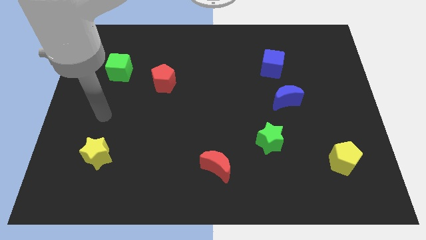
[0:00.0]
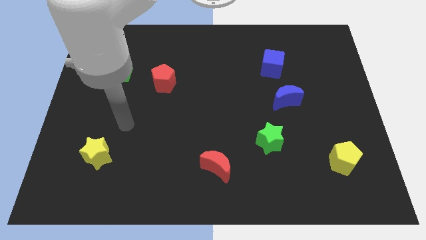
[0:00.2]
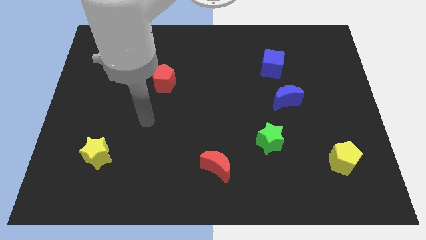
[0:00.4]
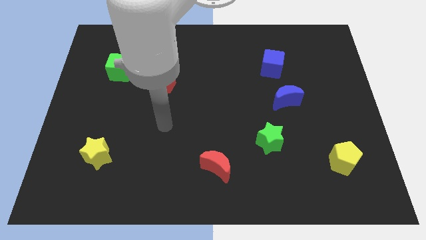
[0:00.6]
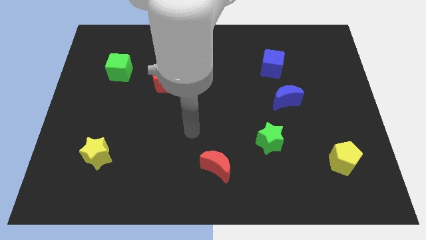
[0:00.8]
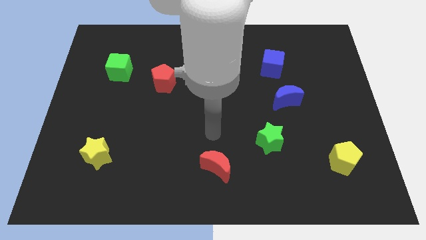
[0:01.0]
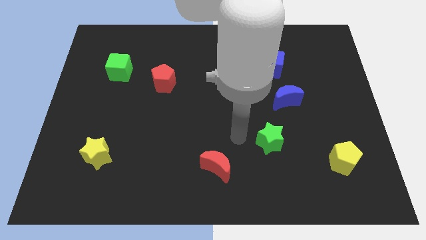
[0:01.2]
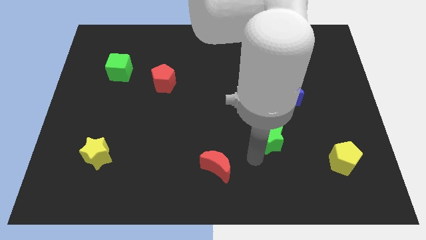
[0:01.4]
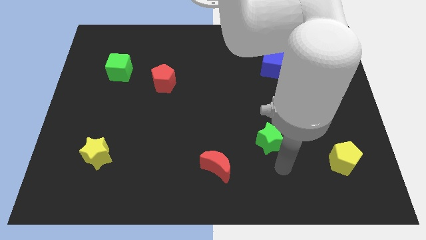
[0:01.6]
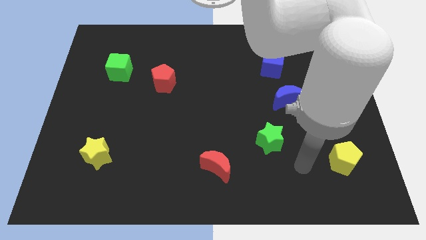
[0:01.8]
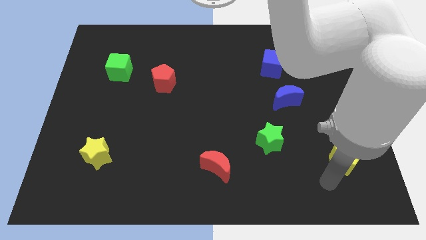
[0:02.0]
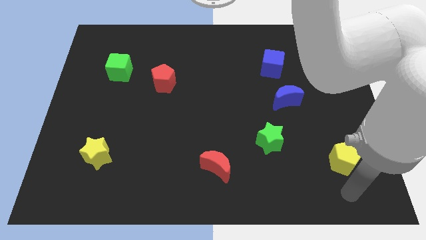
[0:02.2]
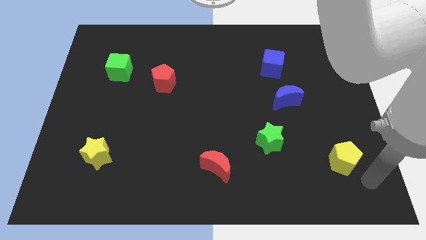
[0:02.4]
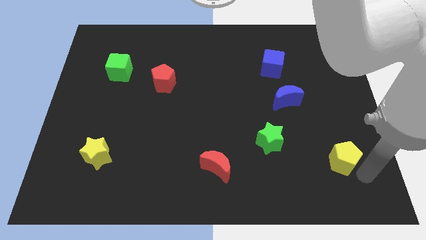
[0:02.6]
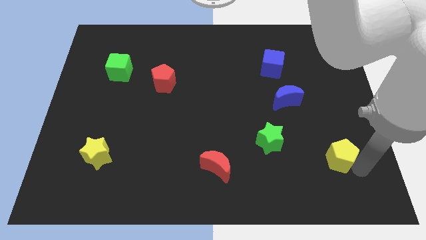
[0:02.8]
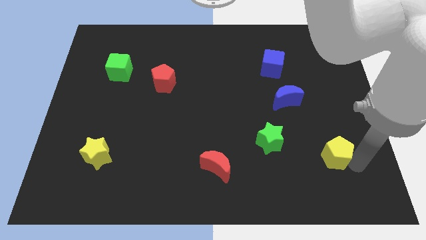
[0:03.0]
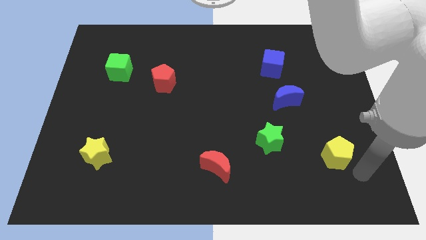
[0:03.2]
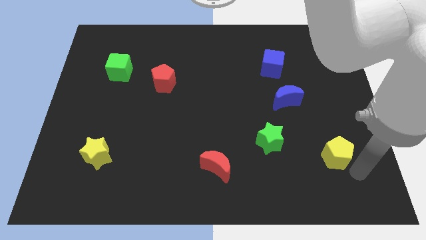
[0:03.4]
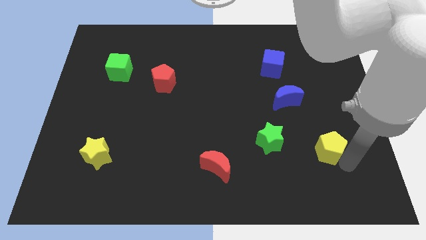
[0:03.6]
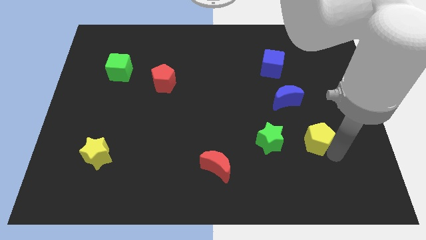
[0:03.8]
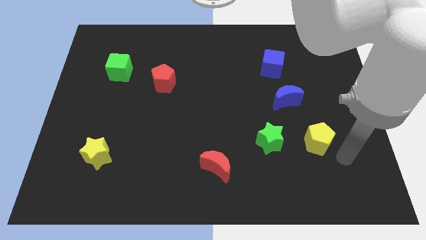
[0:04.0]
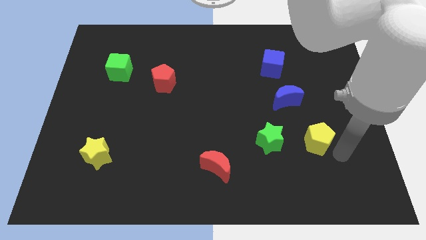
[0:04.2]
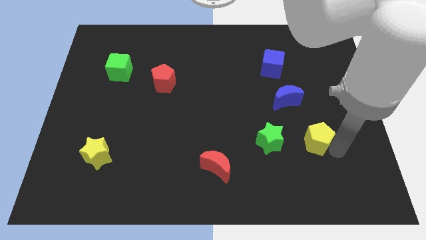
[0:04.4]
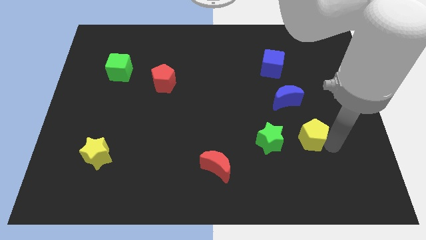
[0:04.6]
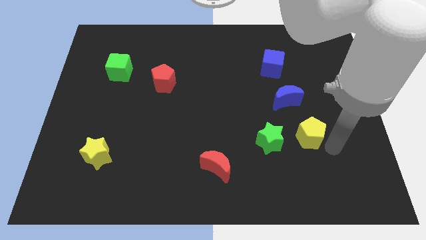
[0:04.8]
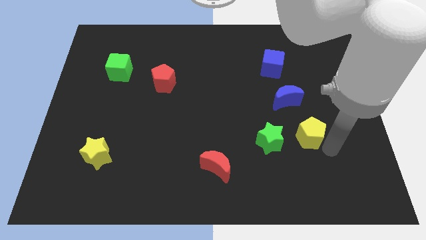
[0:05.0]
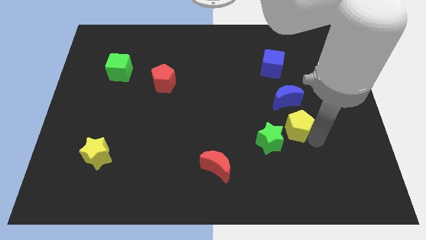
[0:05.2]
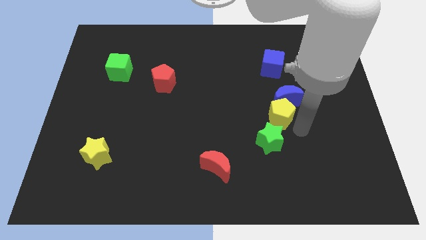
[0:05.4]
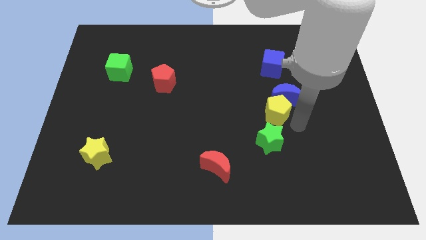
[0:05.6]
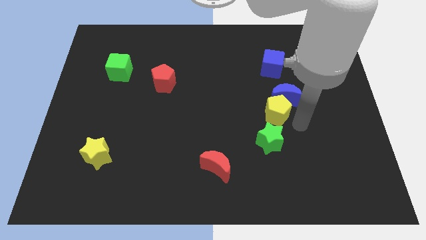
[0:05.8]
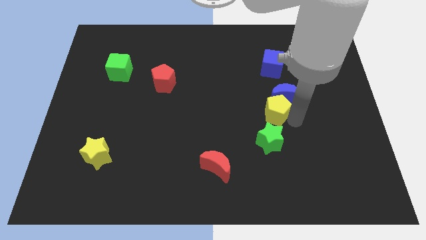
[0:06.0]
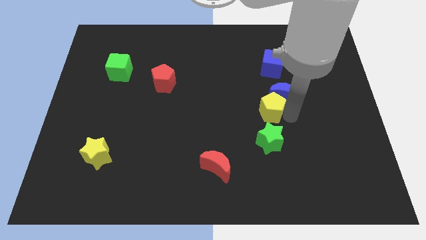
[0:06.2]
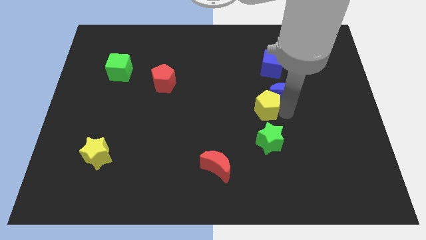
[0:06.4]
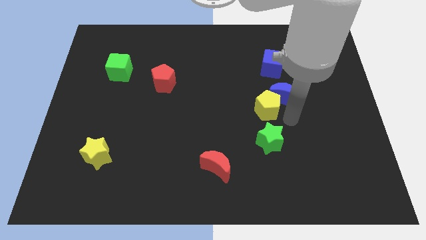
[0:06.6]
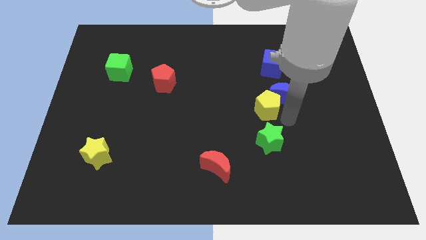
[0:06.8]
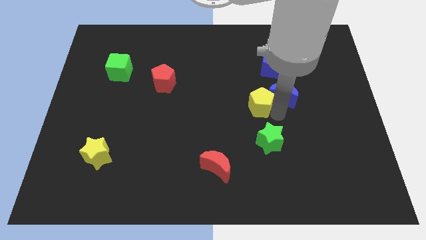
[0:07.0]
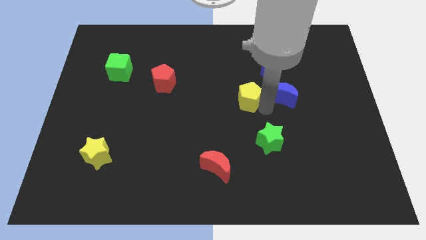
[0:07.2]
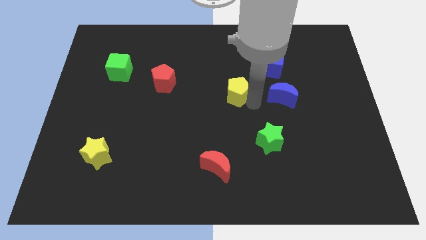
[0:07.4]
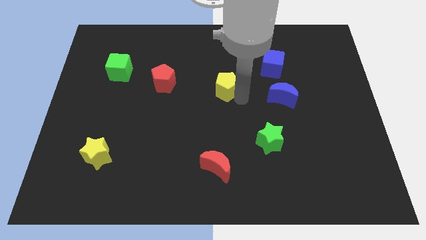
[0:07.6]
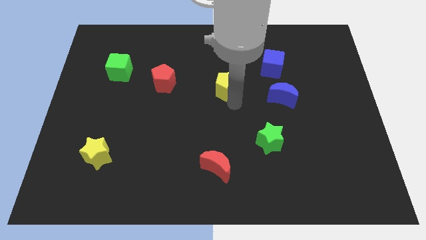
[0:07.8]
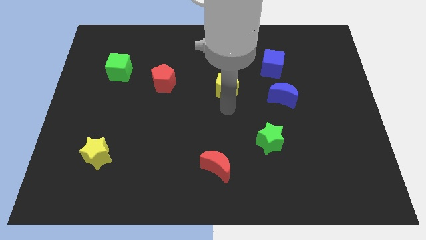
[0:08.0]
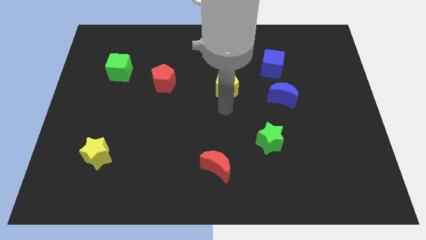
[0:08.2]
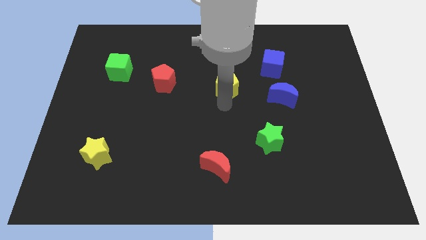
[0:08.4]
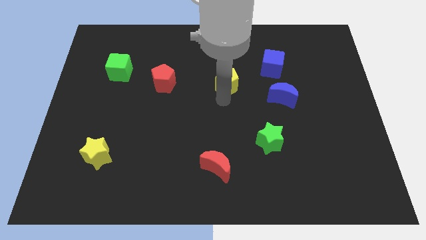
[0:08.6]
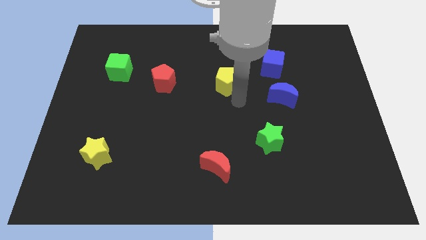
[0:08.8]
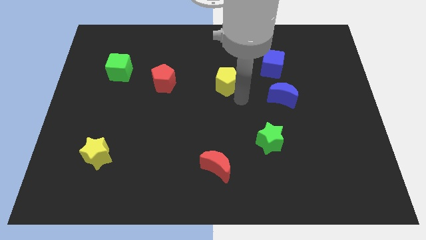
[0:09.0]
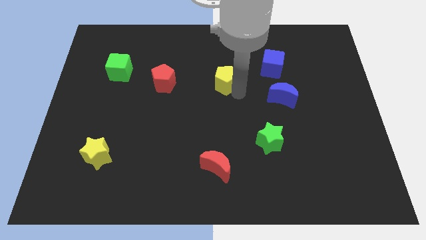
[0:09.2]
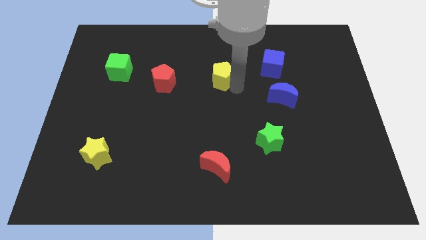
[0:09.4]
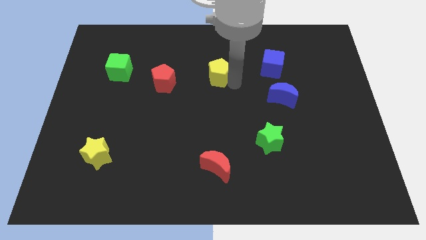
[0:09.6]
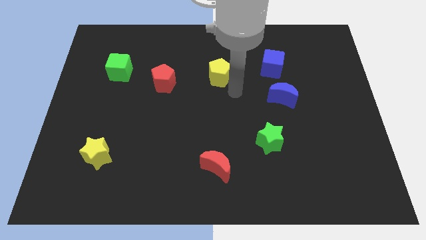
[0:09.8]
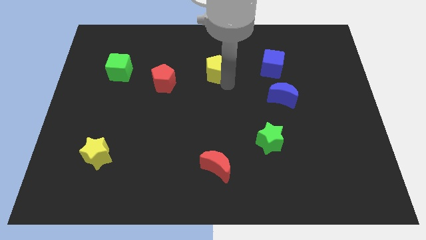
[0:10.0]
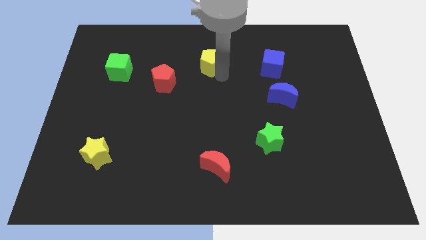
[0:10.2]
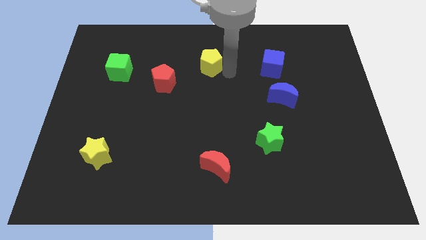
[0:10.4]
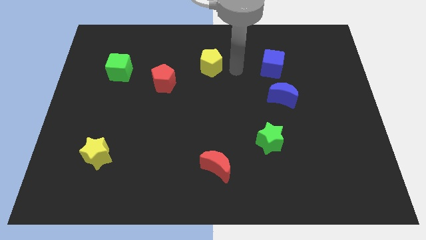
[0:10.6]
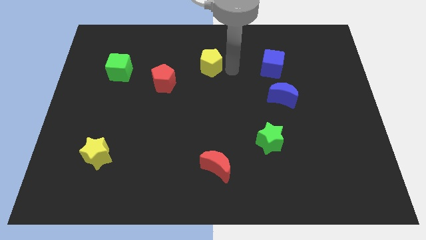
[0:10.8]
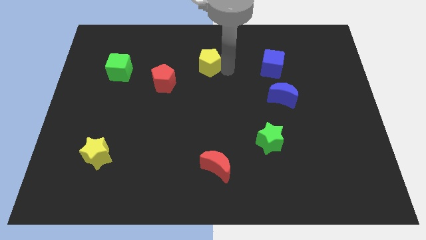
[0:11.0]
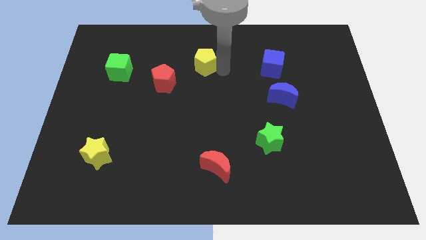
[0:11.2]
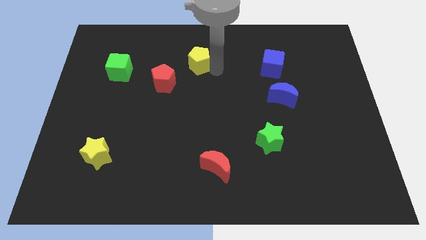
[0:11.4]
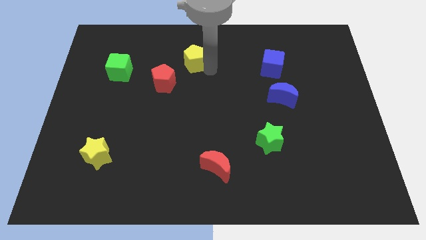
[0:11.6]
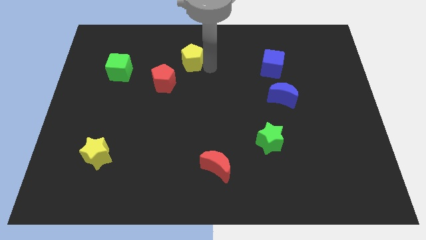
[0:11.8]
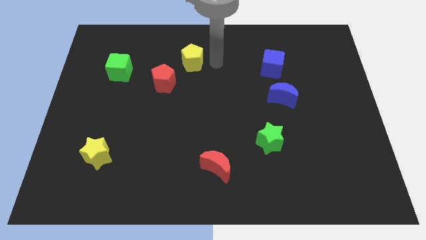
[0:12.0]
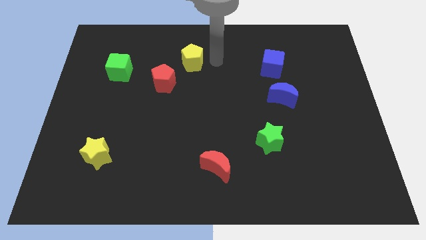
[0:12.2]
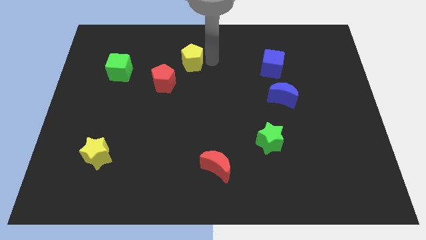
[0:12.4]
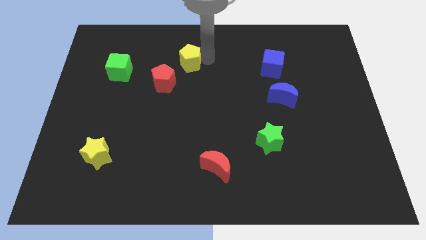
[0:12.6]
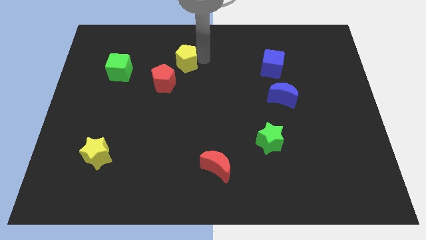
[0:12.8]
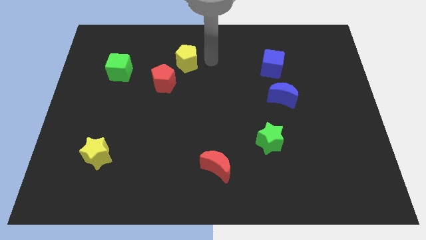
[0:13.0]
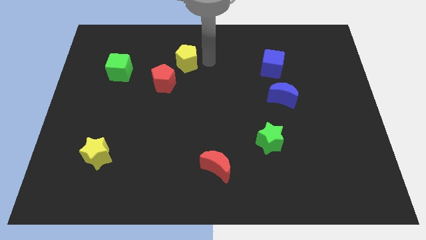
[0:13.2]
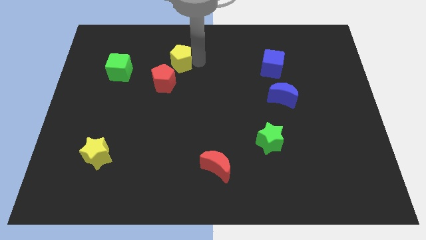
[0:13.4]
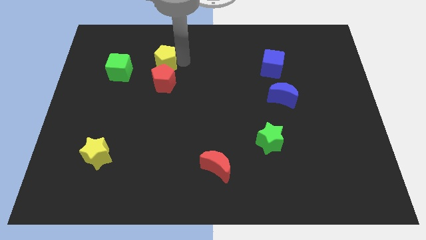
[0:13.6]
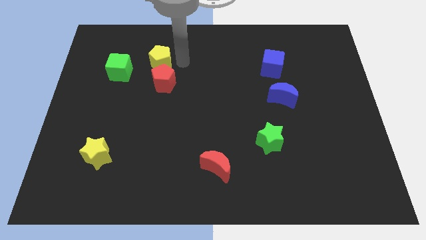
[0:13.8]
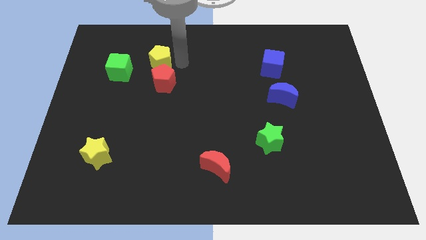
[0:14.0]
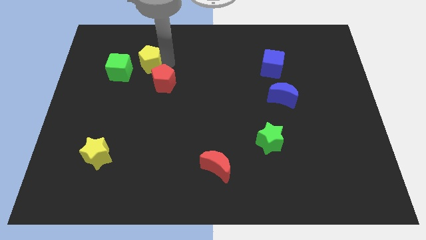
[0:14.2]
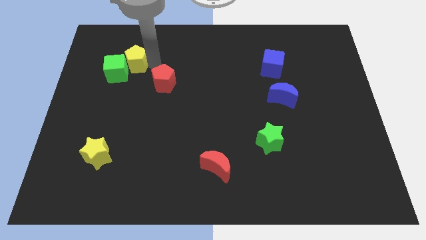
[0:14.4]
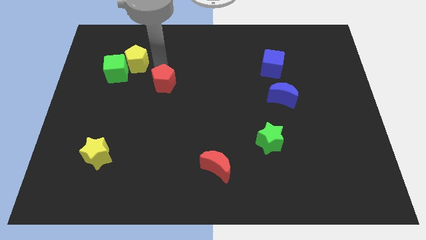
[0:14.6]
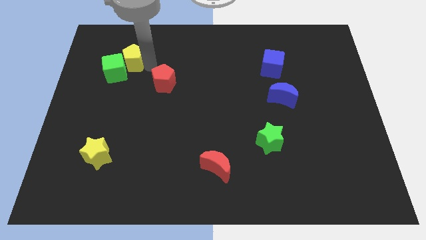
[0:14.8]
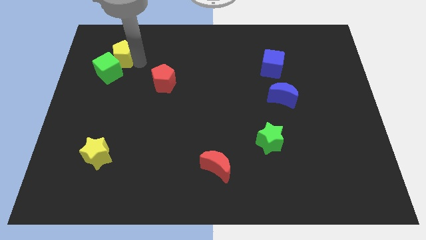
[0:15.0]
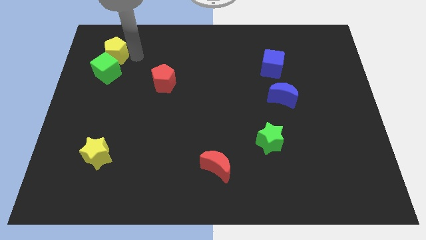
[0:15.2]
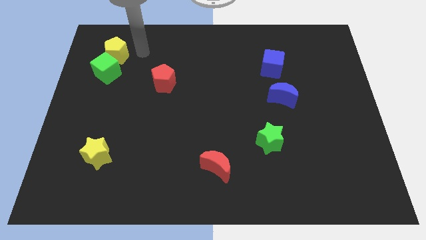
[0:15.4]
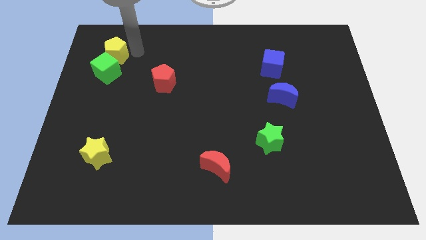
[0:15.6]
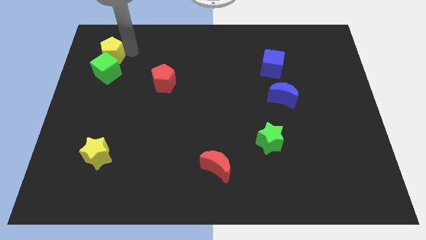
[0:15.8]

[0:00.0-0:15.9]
push the yellow pentagon to the top left side of the green cube

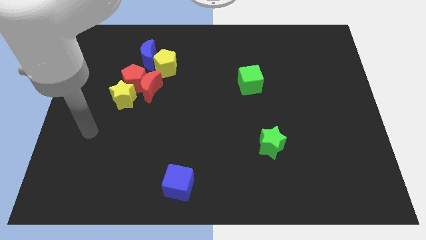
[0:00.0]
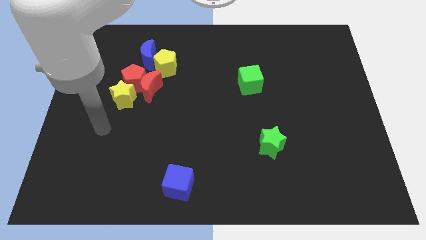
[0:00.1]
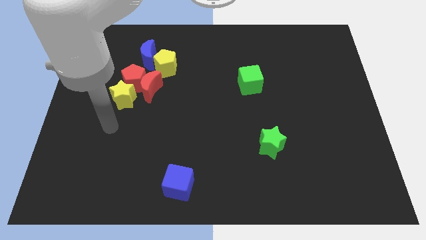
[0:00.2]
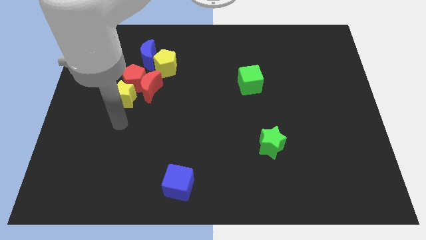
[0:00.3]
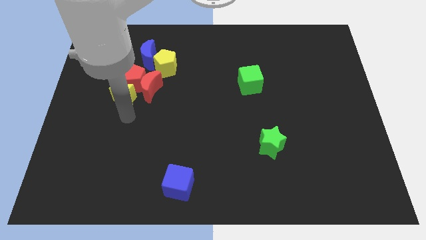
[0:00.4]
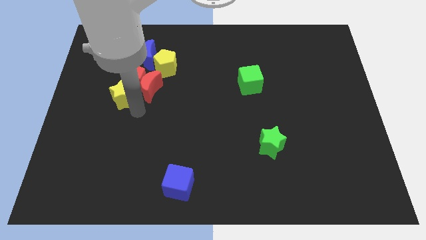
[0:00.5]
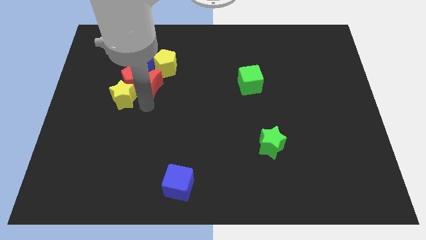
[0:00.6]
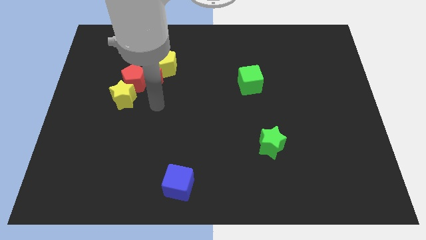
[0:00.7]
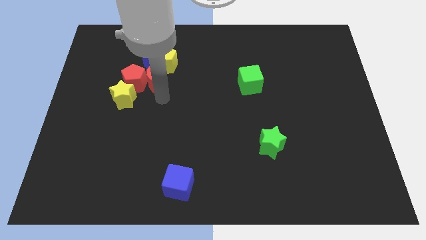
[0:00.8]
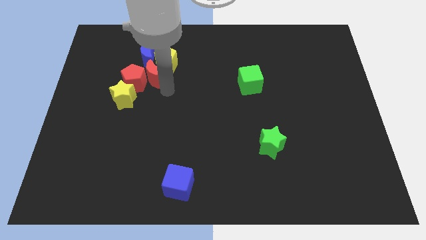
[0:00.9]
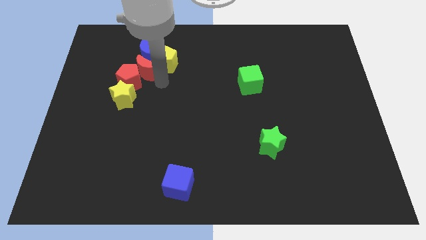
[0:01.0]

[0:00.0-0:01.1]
slide the red pentagon to the bottom side of the red moon
